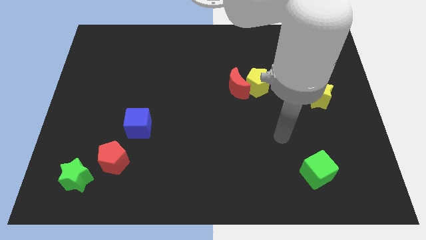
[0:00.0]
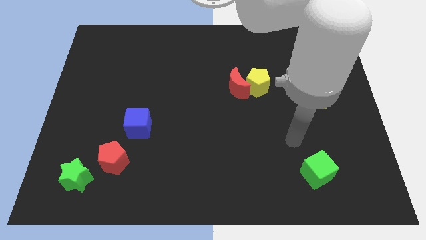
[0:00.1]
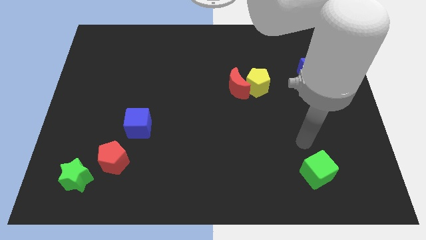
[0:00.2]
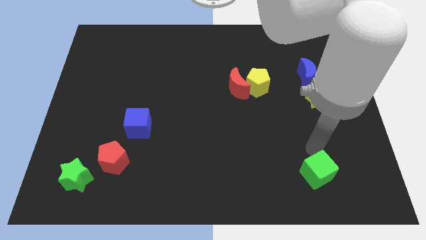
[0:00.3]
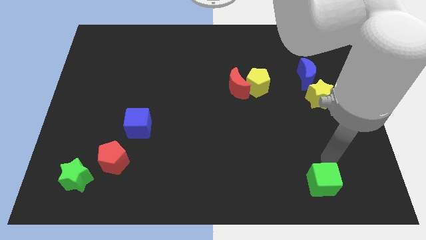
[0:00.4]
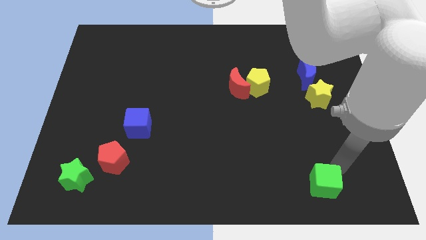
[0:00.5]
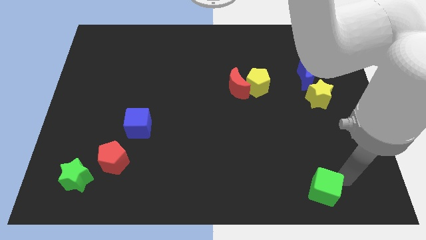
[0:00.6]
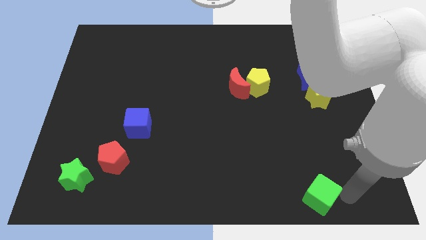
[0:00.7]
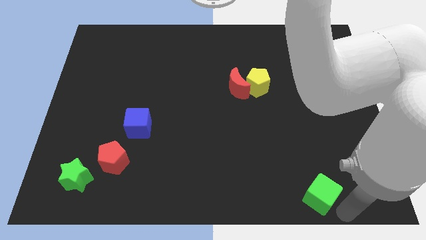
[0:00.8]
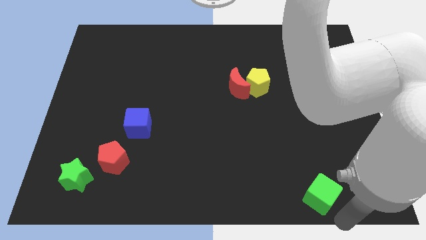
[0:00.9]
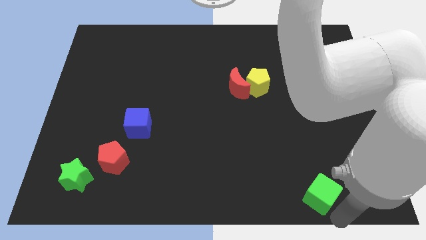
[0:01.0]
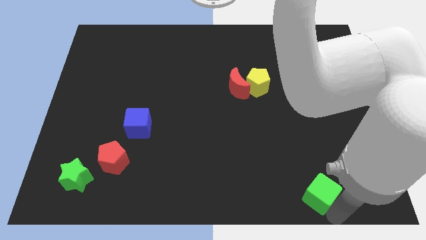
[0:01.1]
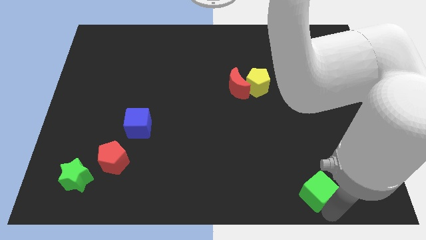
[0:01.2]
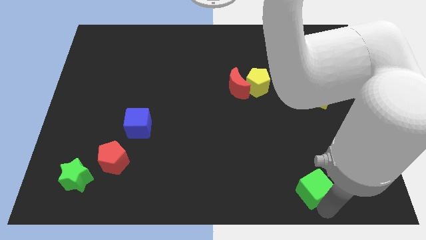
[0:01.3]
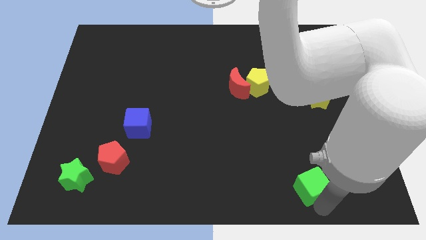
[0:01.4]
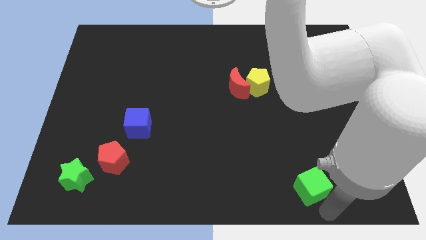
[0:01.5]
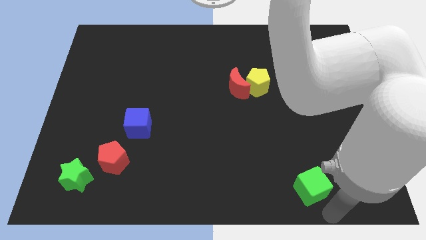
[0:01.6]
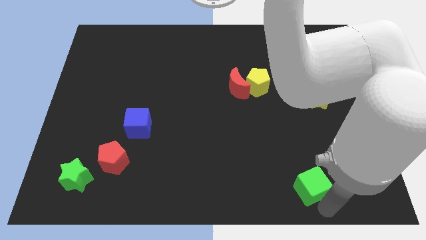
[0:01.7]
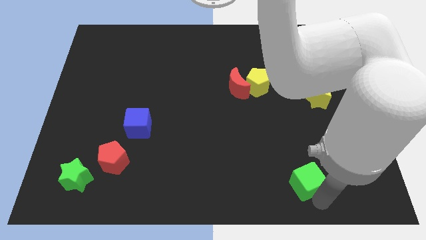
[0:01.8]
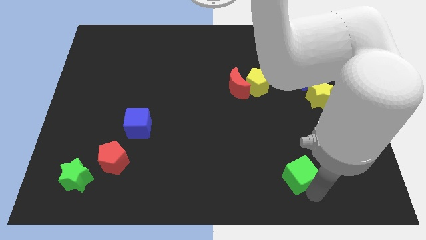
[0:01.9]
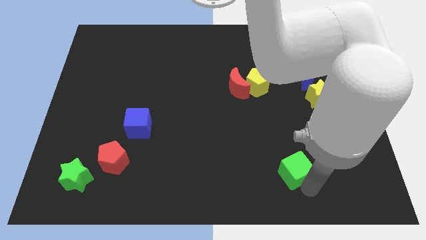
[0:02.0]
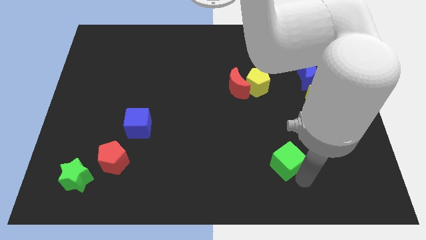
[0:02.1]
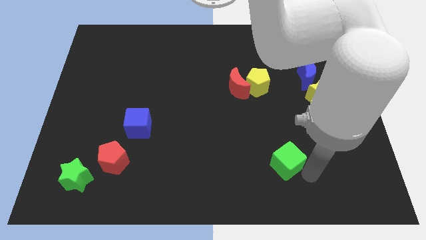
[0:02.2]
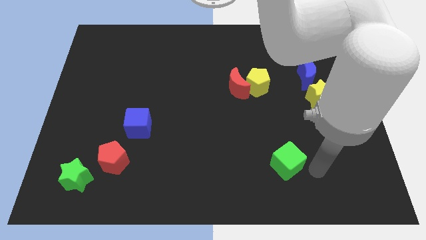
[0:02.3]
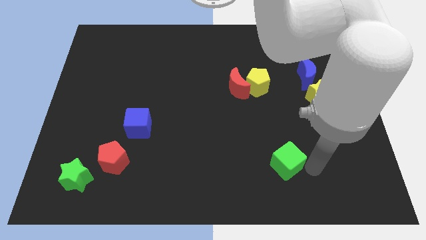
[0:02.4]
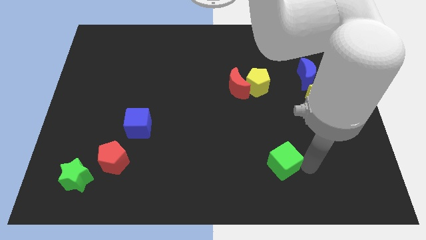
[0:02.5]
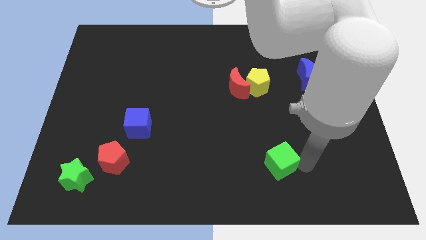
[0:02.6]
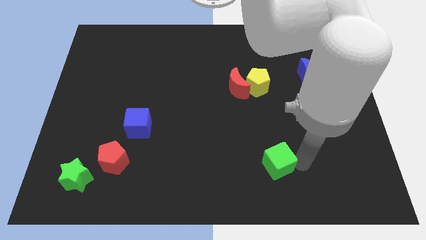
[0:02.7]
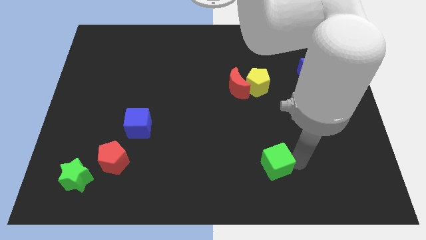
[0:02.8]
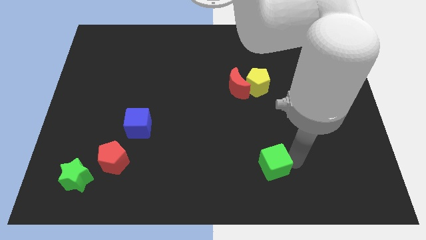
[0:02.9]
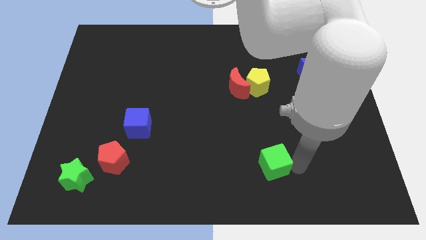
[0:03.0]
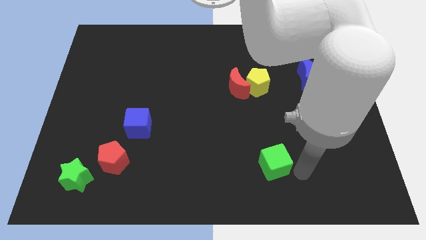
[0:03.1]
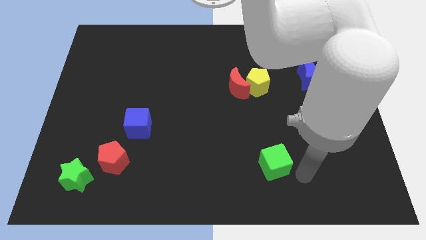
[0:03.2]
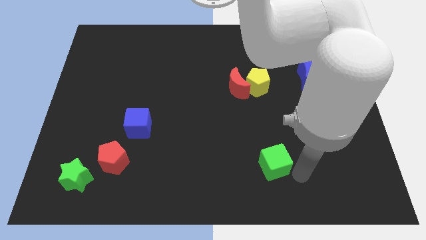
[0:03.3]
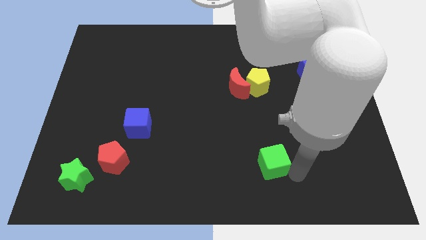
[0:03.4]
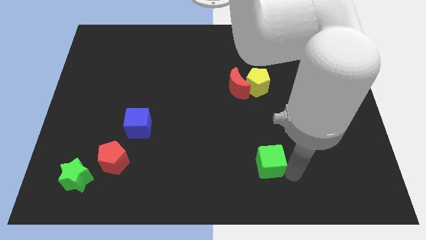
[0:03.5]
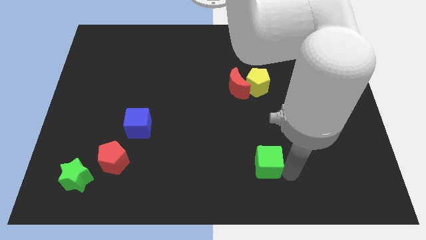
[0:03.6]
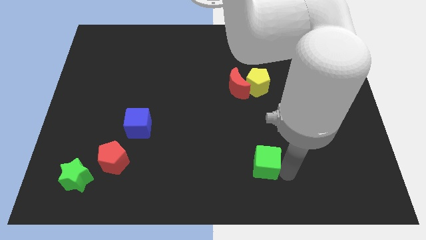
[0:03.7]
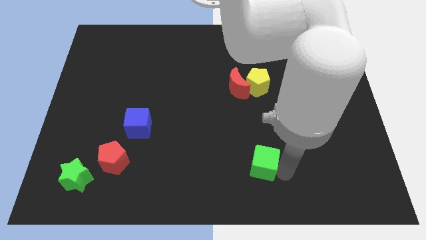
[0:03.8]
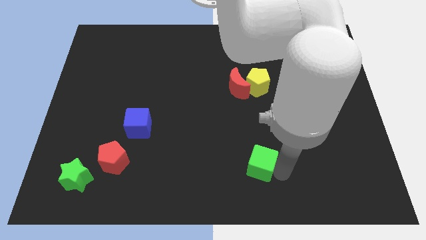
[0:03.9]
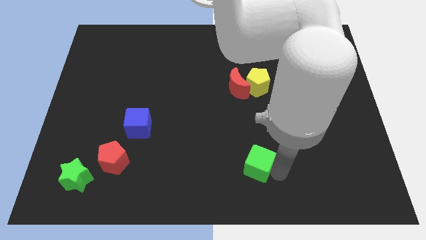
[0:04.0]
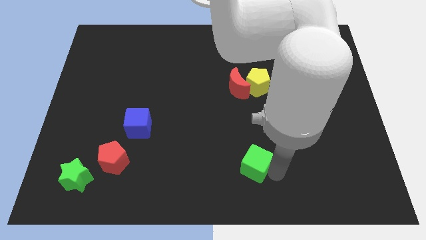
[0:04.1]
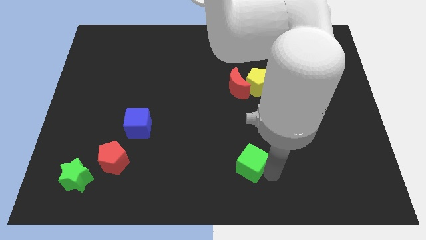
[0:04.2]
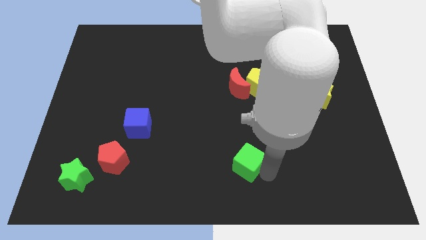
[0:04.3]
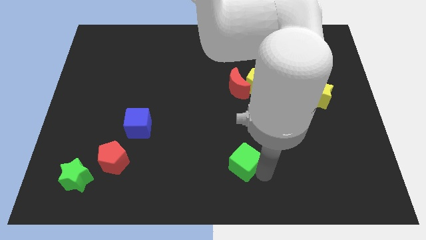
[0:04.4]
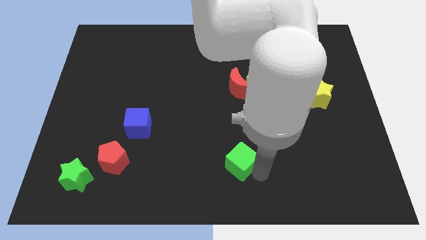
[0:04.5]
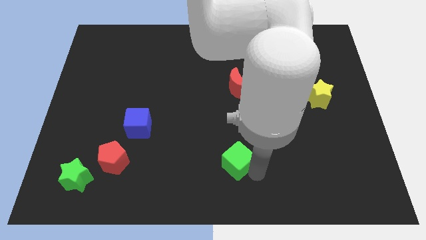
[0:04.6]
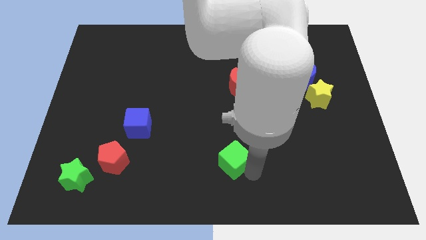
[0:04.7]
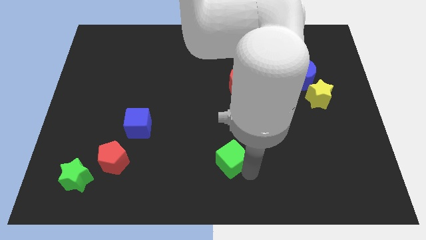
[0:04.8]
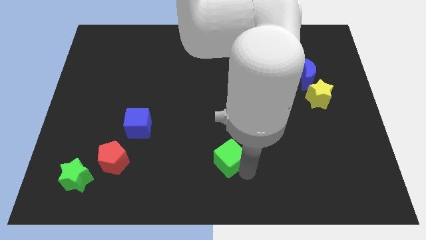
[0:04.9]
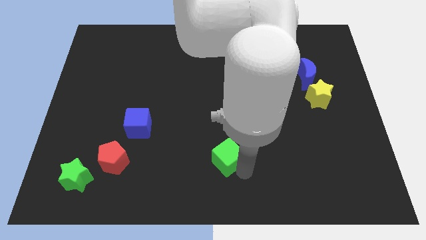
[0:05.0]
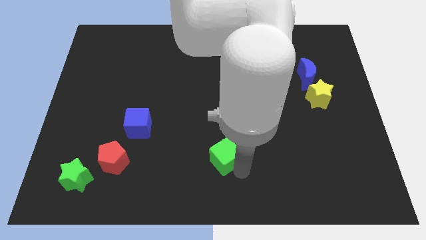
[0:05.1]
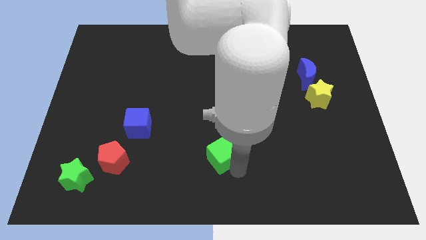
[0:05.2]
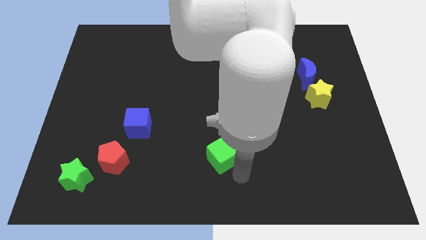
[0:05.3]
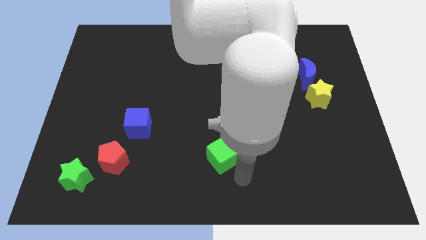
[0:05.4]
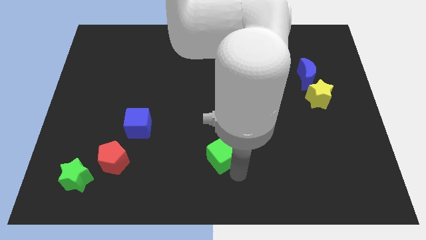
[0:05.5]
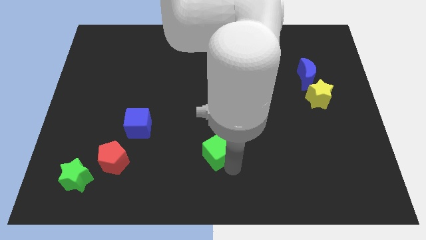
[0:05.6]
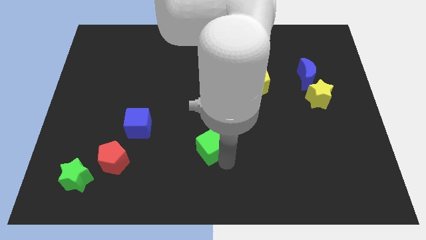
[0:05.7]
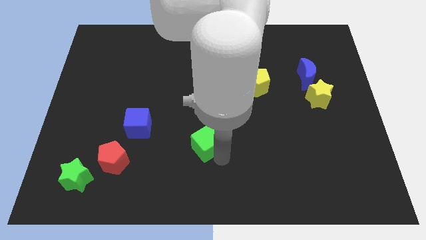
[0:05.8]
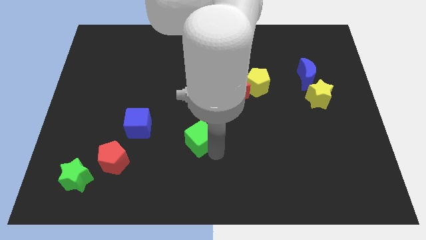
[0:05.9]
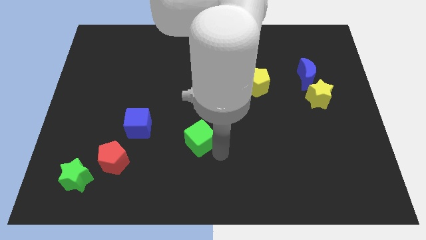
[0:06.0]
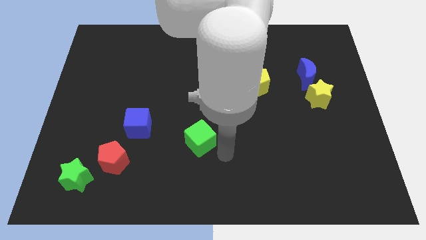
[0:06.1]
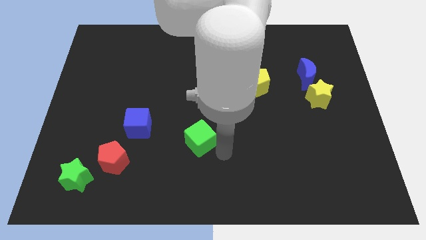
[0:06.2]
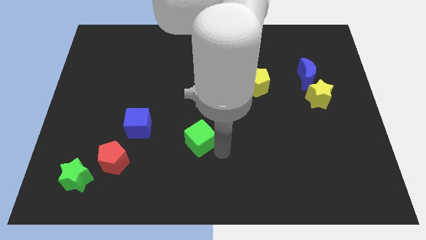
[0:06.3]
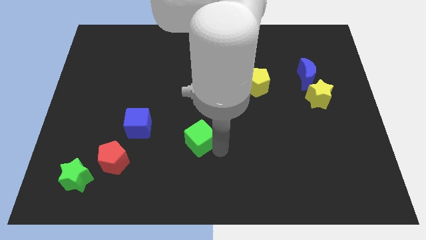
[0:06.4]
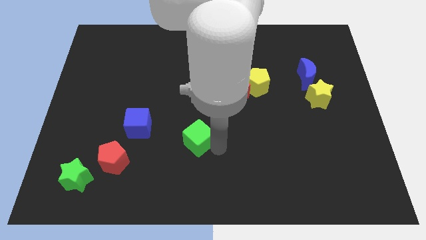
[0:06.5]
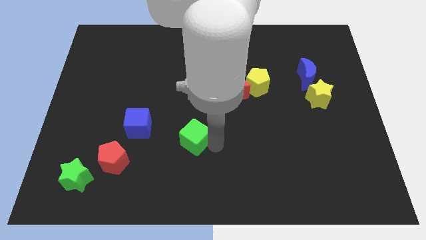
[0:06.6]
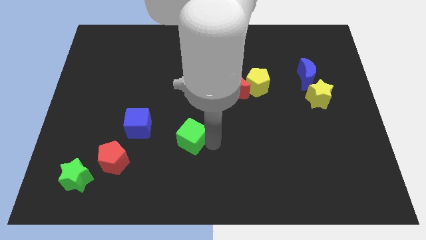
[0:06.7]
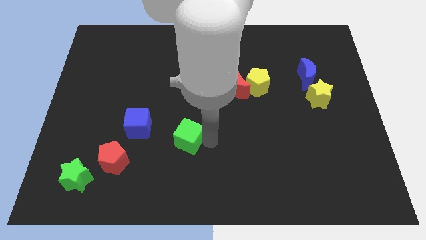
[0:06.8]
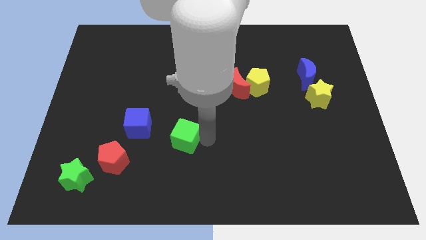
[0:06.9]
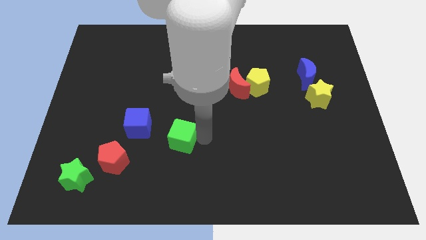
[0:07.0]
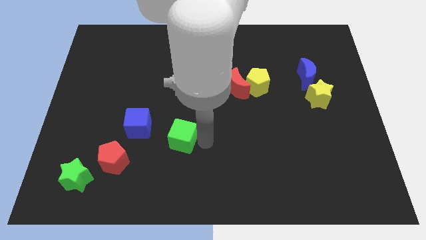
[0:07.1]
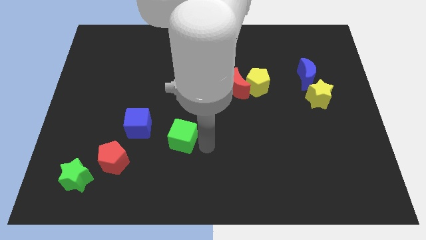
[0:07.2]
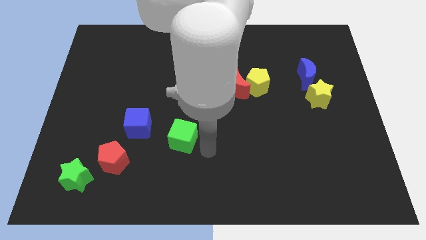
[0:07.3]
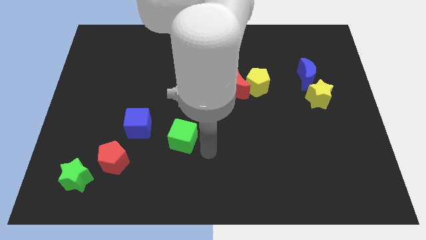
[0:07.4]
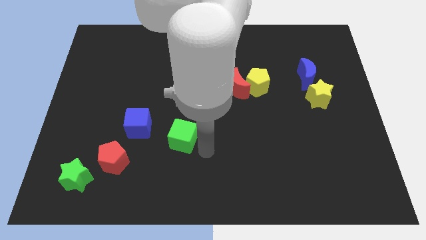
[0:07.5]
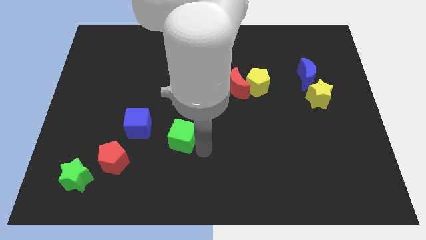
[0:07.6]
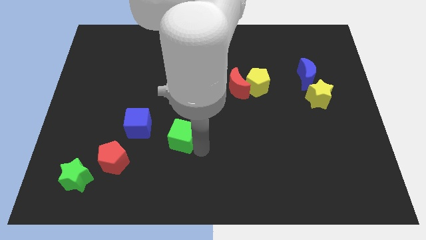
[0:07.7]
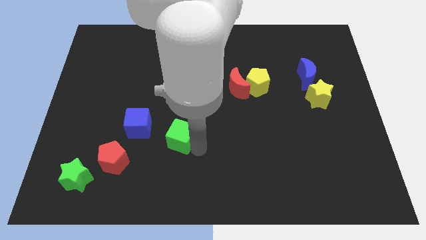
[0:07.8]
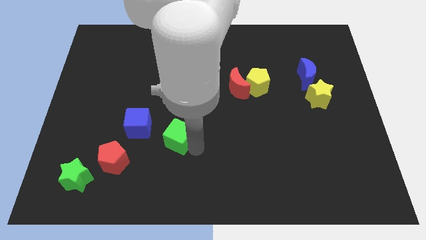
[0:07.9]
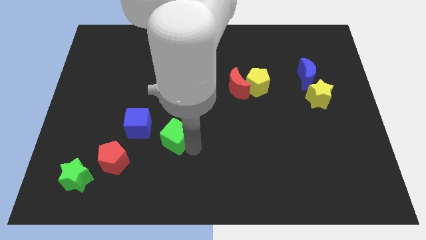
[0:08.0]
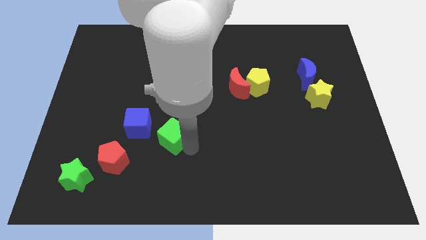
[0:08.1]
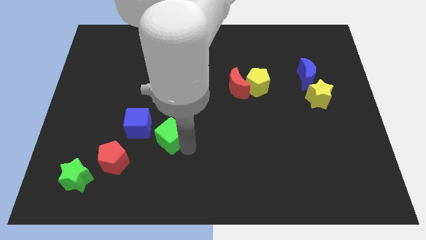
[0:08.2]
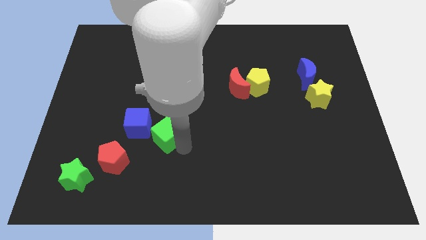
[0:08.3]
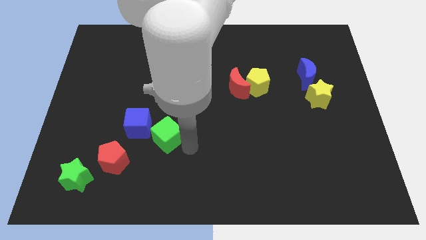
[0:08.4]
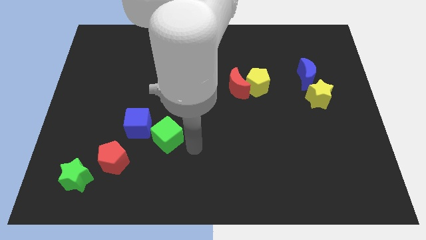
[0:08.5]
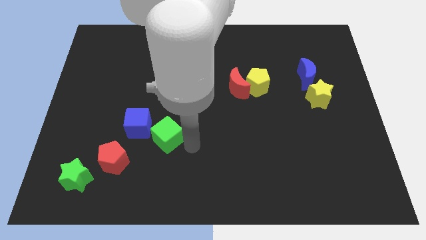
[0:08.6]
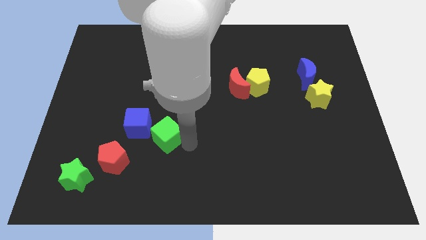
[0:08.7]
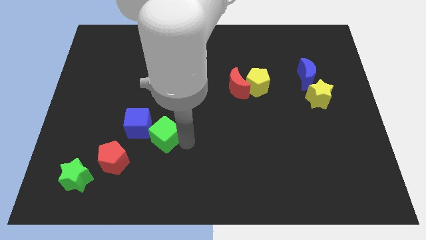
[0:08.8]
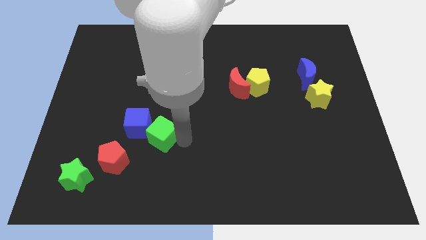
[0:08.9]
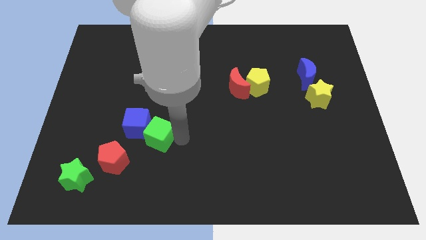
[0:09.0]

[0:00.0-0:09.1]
move the green cube next to the blue cube
